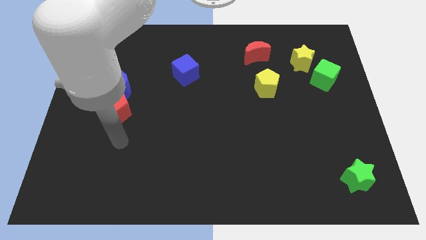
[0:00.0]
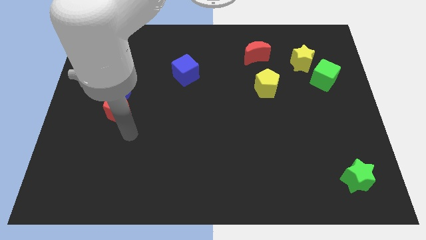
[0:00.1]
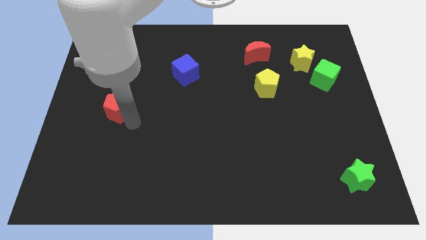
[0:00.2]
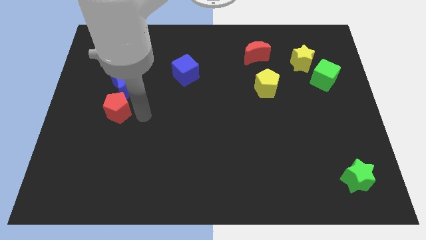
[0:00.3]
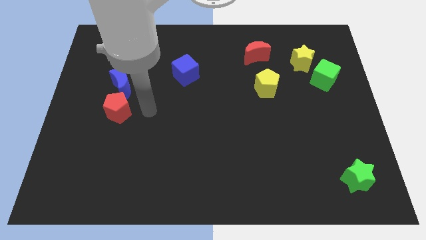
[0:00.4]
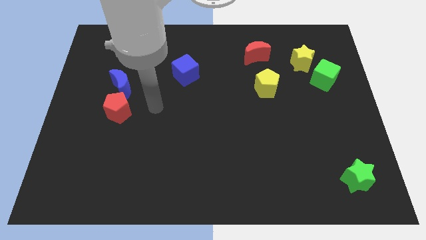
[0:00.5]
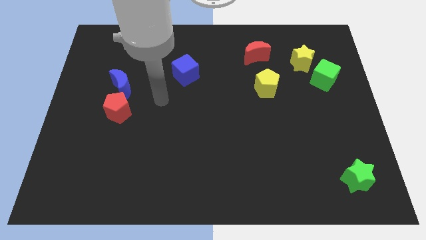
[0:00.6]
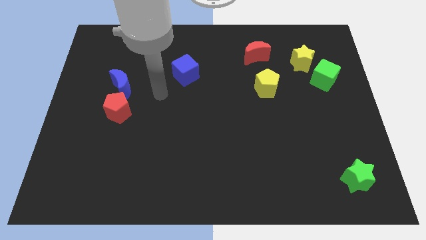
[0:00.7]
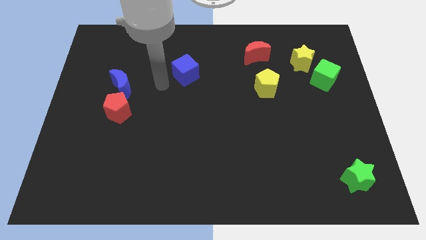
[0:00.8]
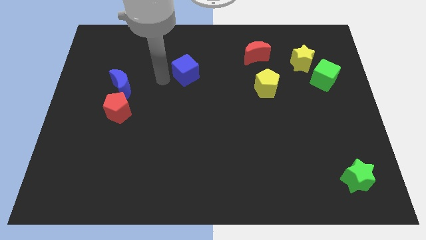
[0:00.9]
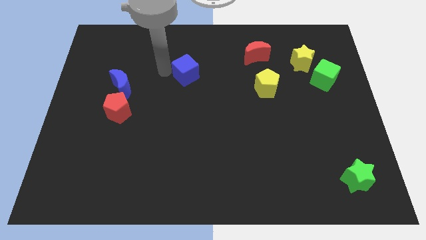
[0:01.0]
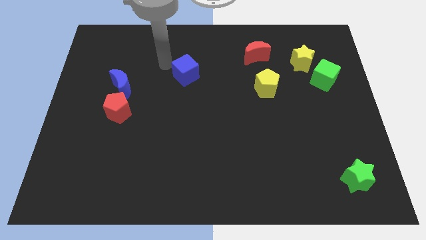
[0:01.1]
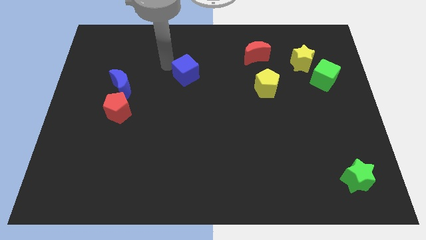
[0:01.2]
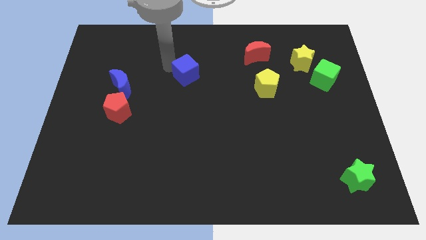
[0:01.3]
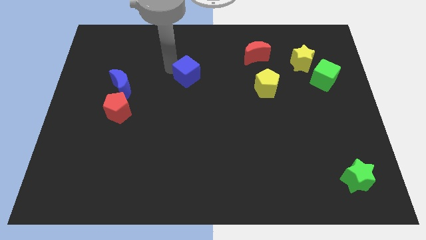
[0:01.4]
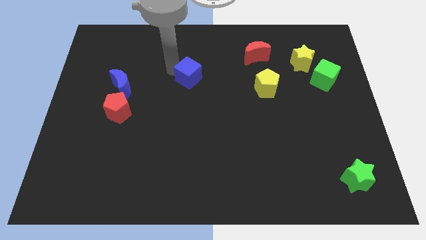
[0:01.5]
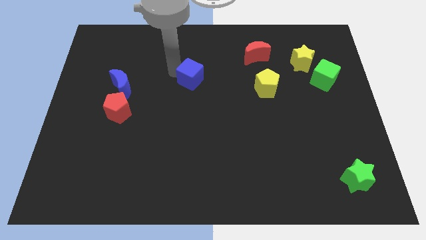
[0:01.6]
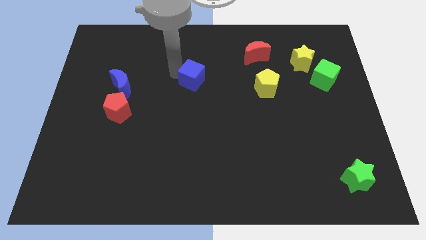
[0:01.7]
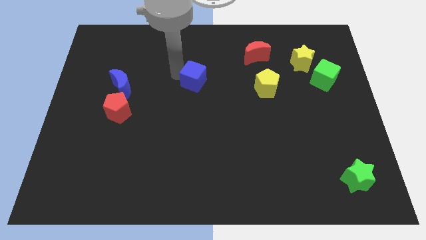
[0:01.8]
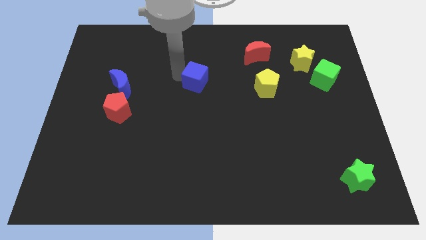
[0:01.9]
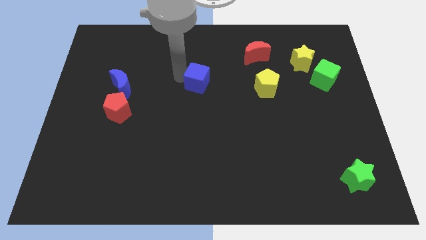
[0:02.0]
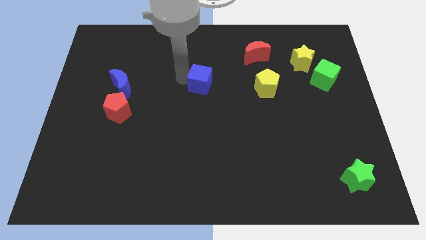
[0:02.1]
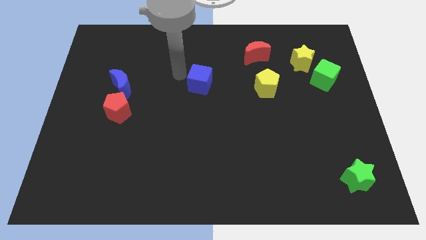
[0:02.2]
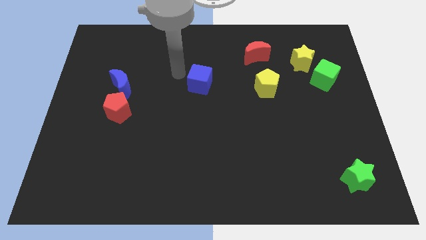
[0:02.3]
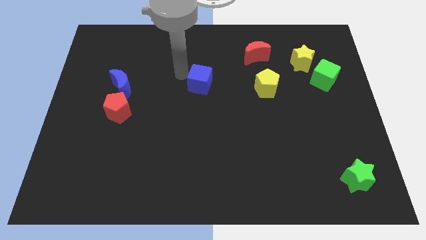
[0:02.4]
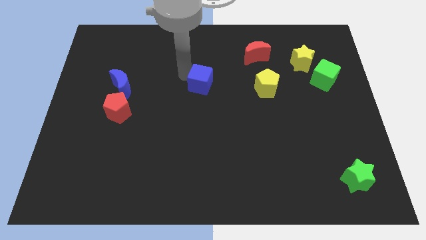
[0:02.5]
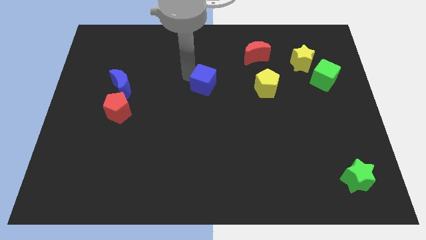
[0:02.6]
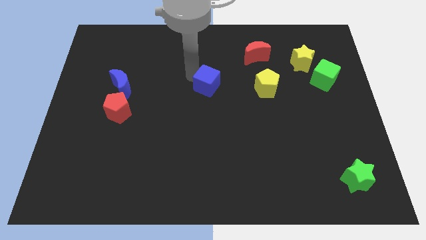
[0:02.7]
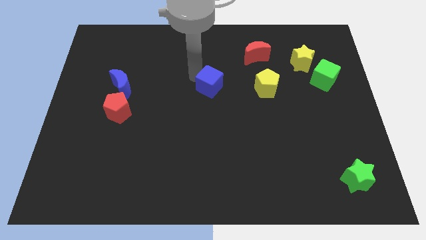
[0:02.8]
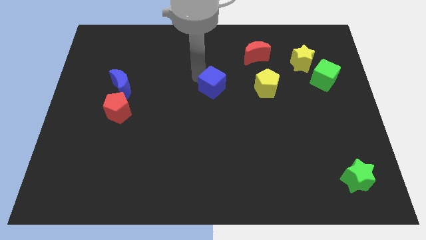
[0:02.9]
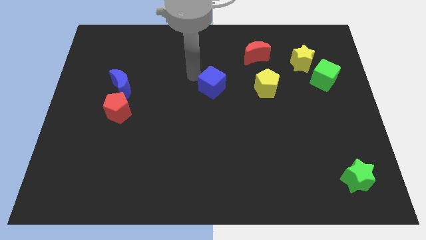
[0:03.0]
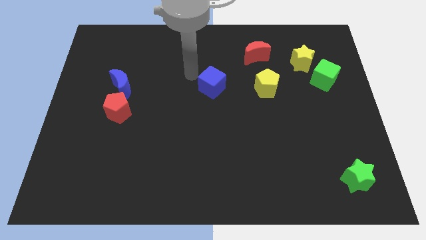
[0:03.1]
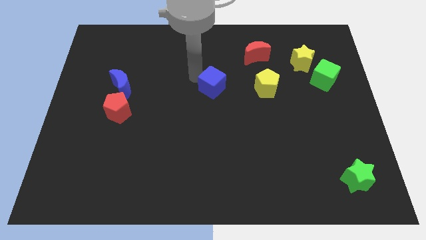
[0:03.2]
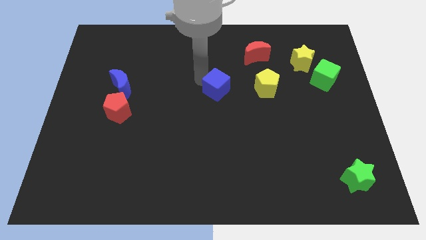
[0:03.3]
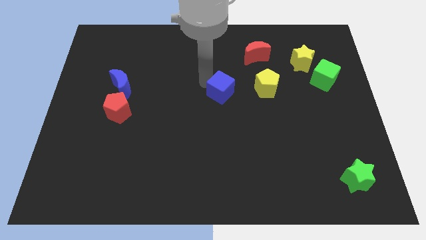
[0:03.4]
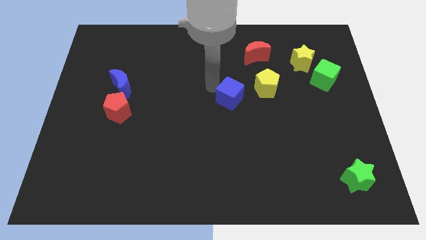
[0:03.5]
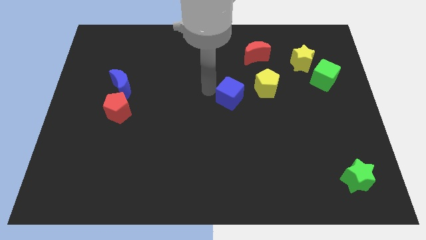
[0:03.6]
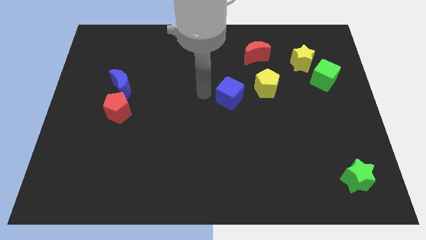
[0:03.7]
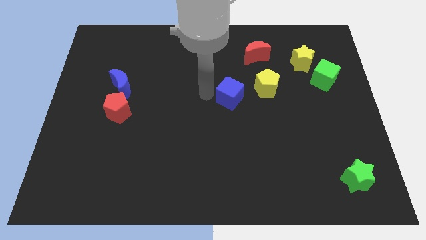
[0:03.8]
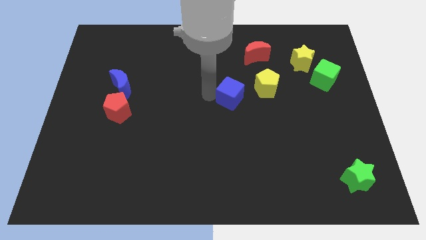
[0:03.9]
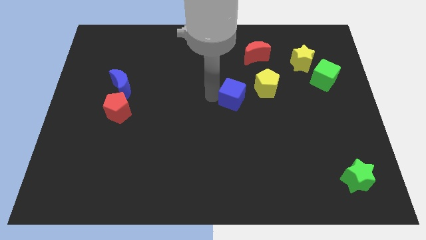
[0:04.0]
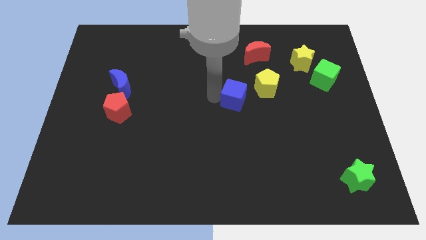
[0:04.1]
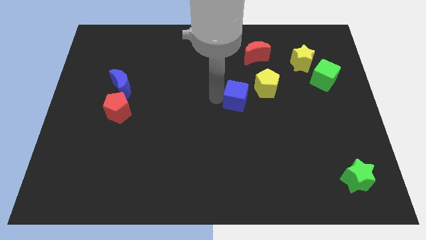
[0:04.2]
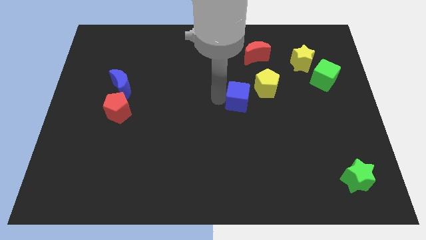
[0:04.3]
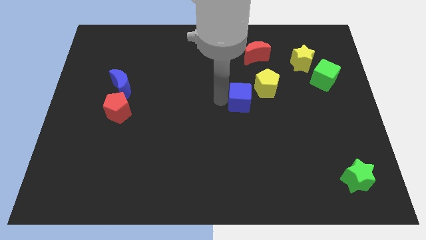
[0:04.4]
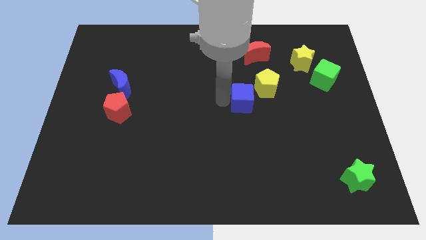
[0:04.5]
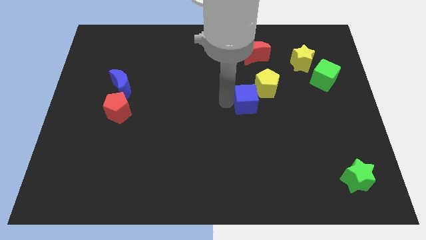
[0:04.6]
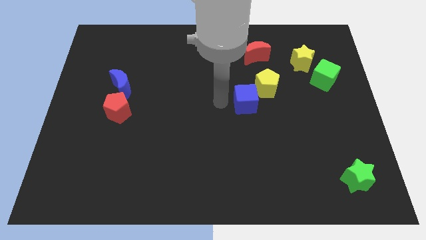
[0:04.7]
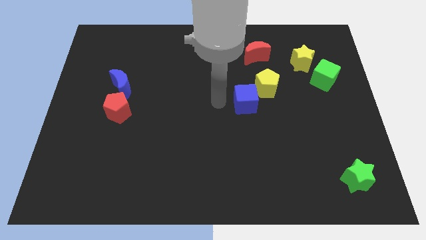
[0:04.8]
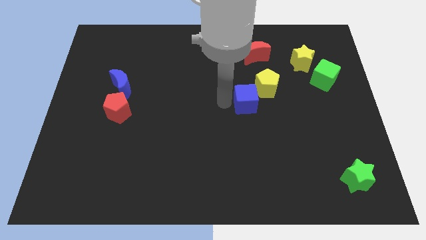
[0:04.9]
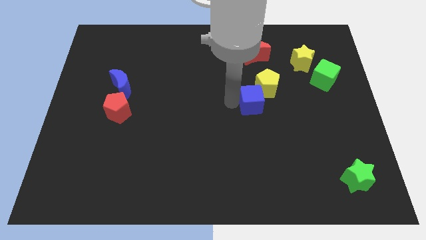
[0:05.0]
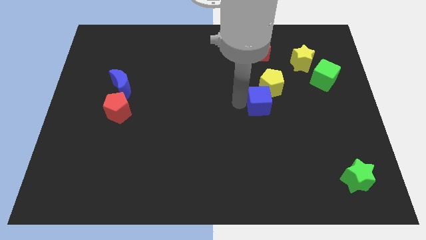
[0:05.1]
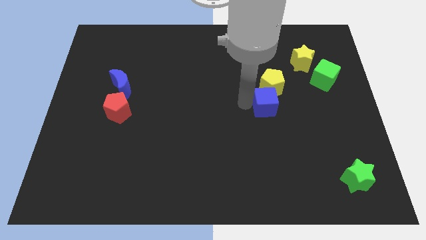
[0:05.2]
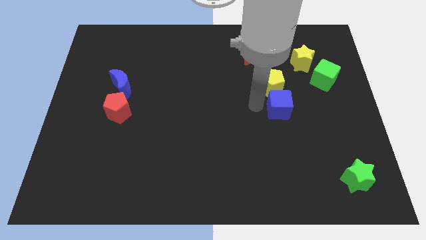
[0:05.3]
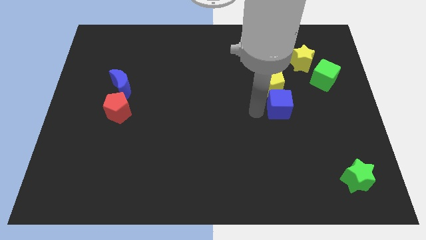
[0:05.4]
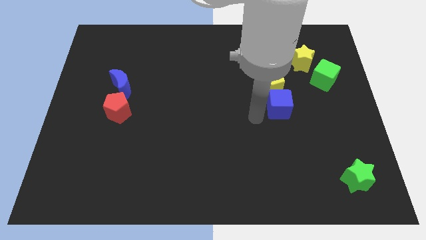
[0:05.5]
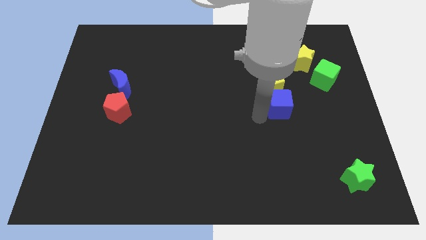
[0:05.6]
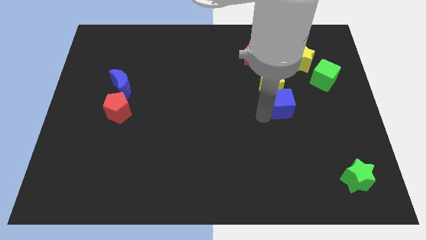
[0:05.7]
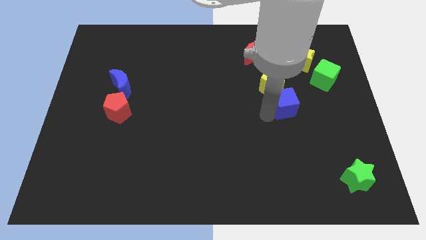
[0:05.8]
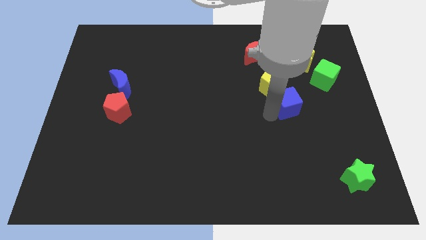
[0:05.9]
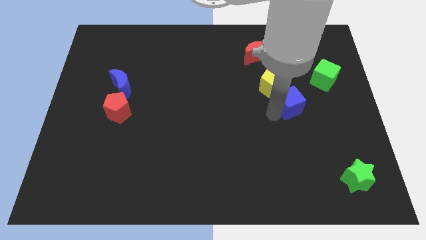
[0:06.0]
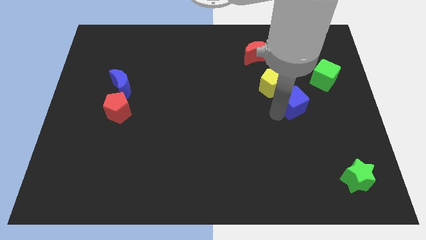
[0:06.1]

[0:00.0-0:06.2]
move the blue cube diagonally down and to the left of the green cube
